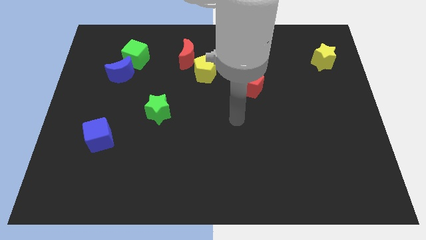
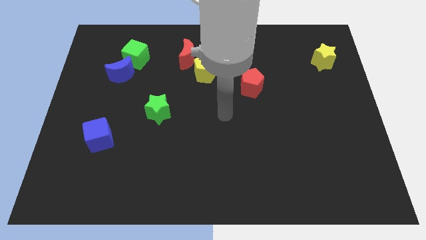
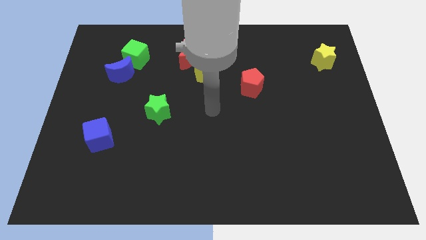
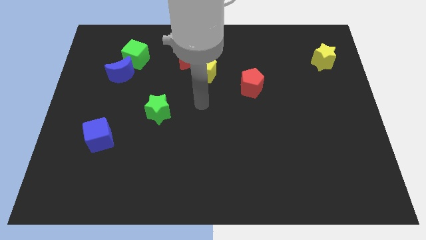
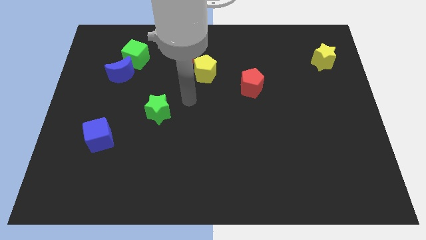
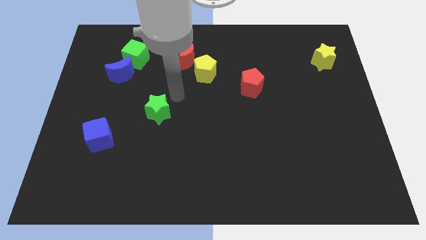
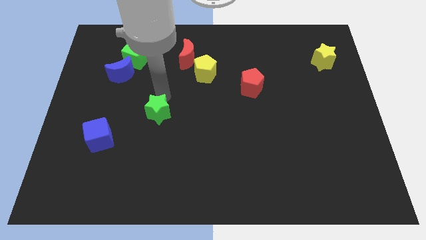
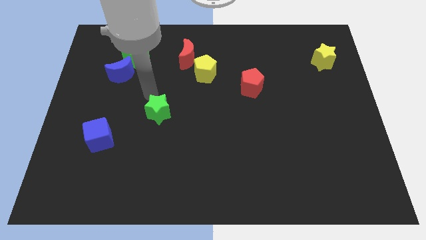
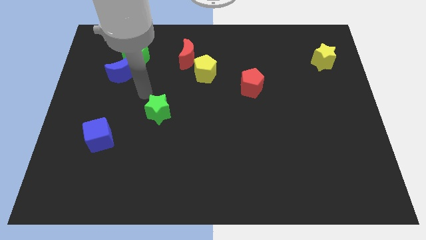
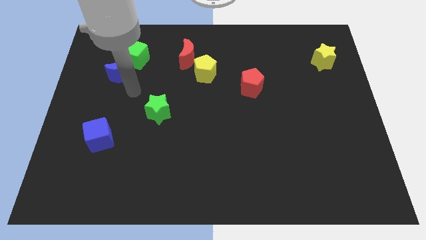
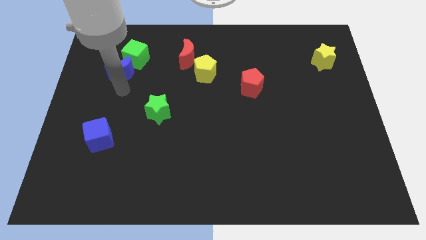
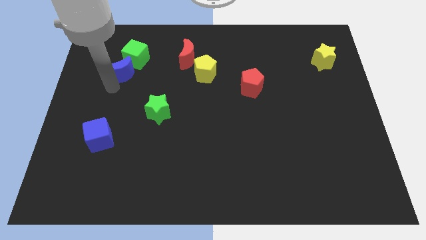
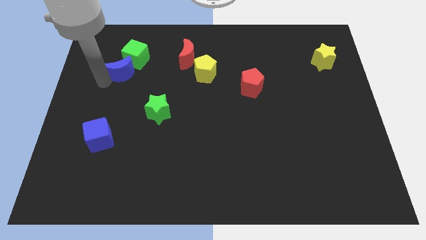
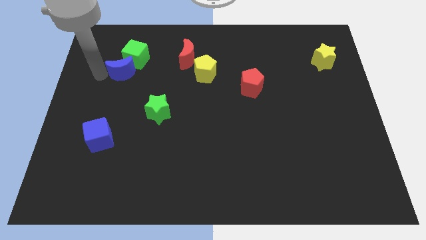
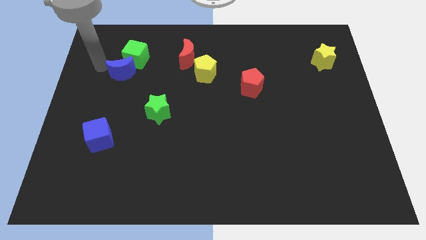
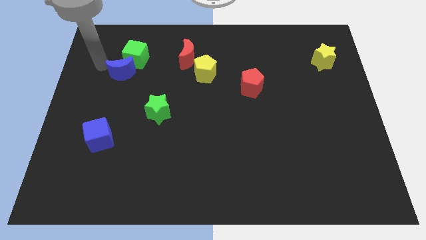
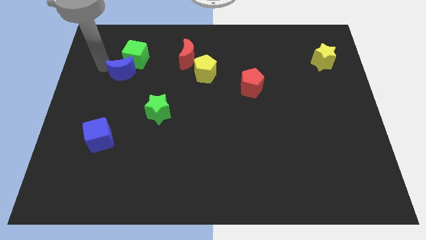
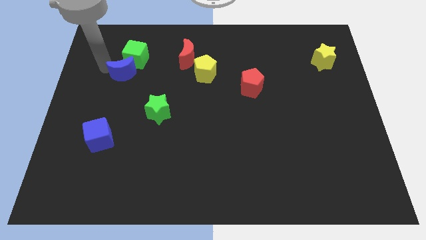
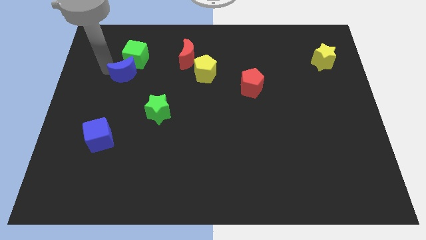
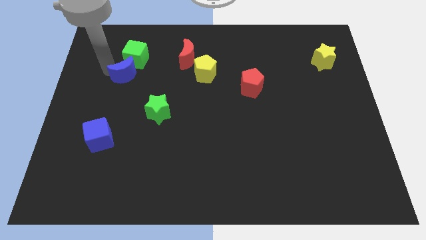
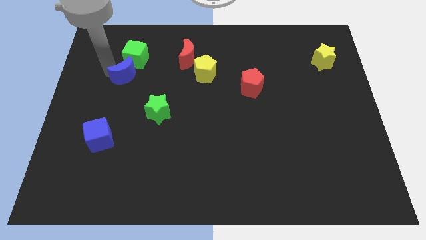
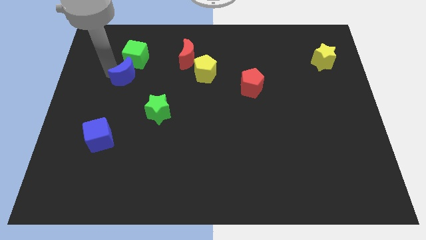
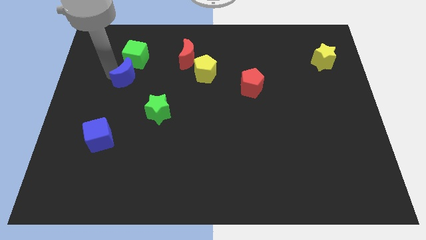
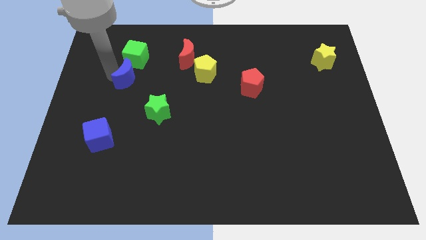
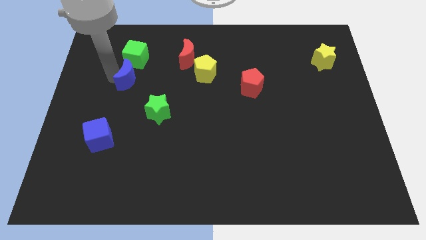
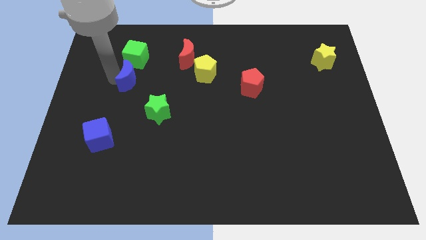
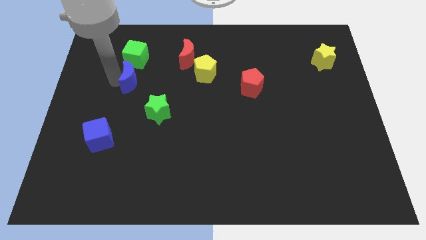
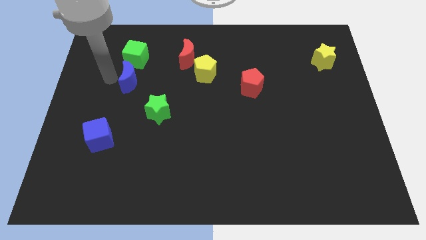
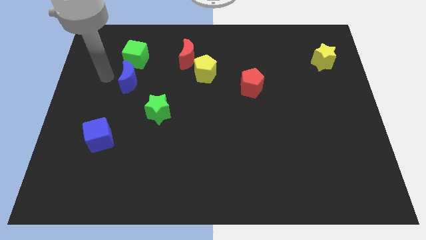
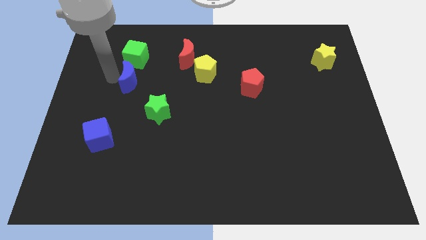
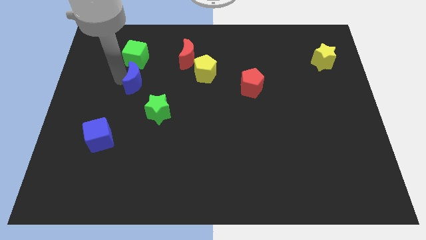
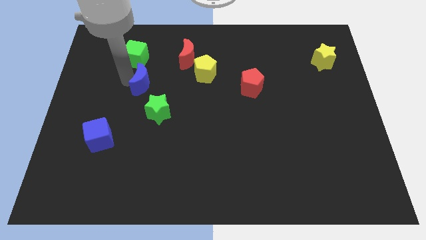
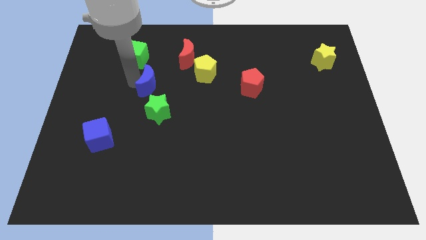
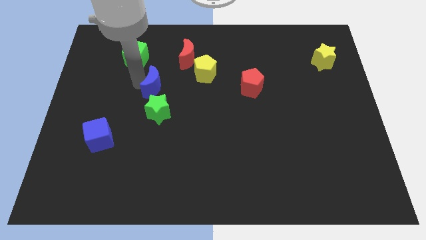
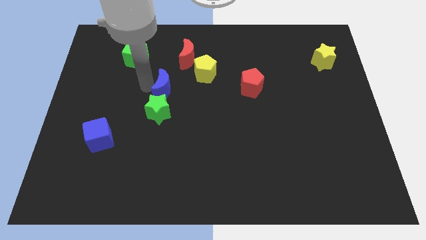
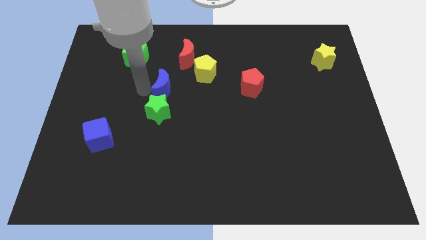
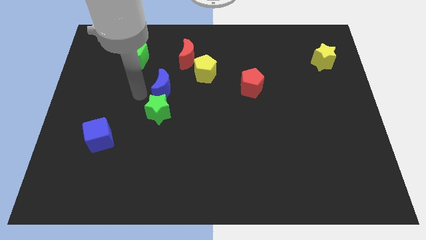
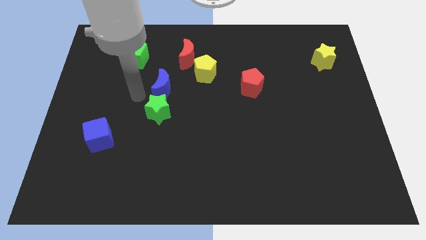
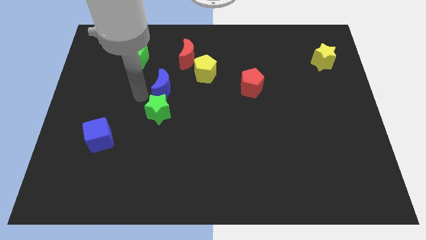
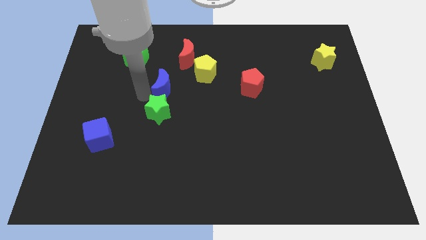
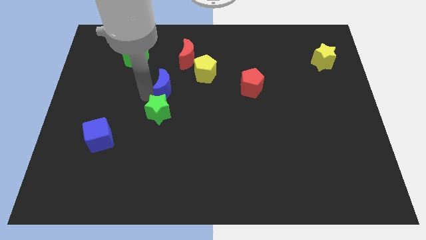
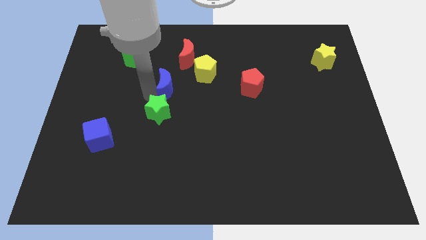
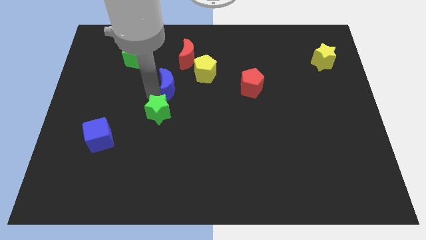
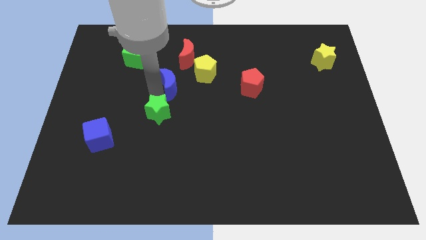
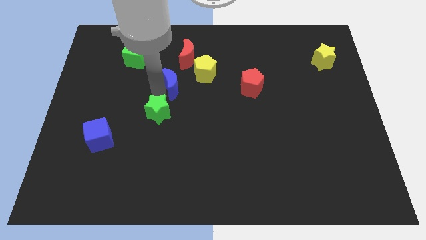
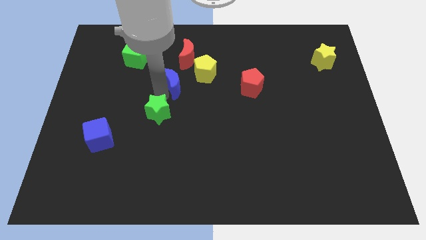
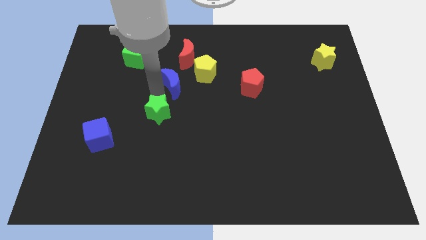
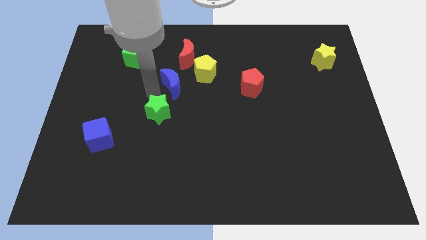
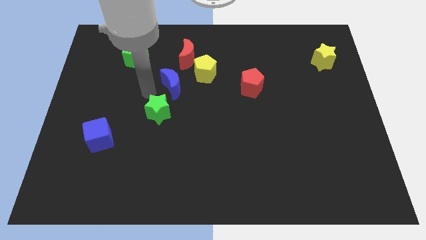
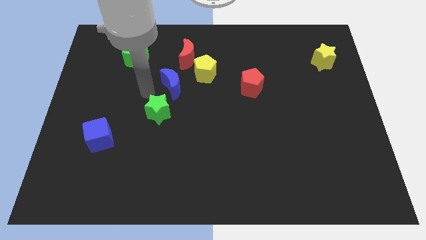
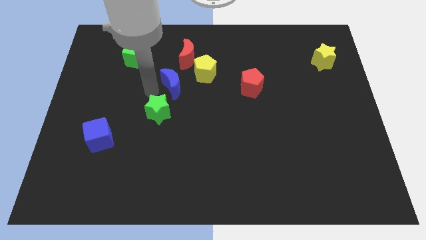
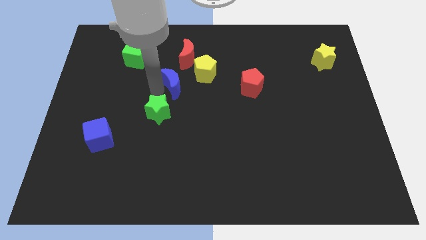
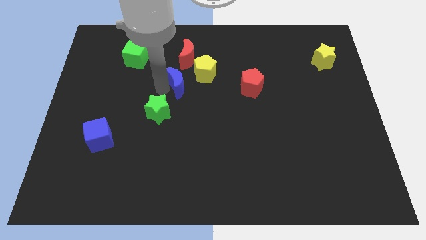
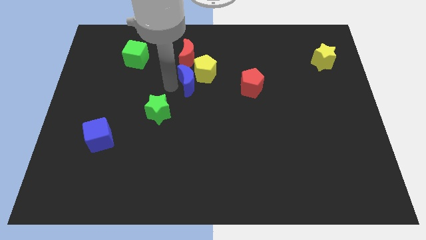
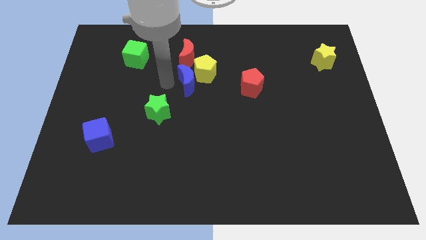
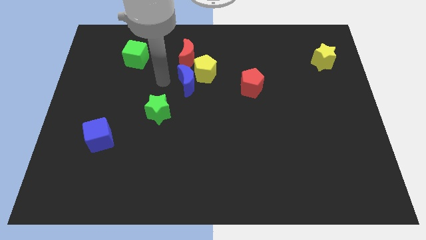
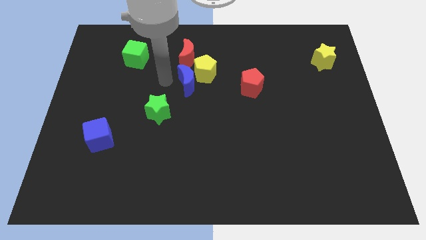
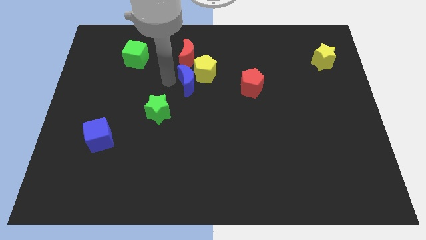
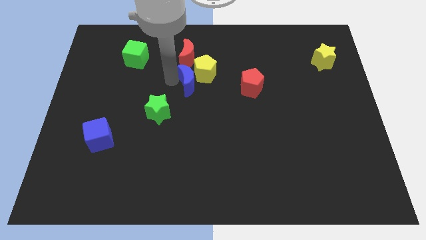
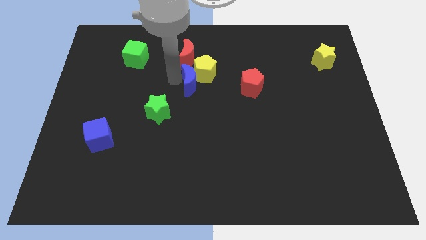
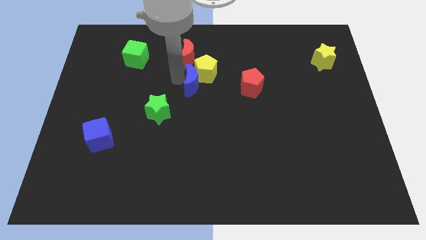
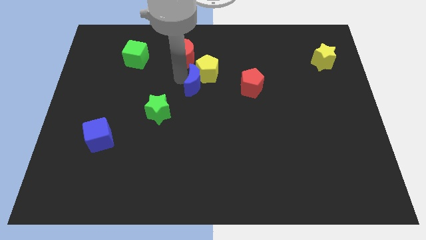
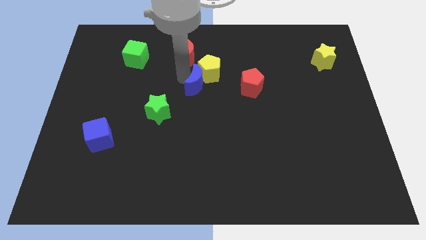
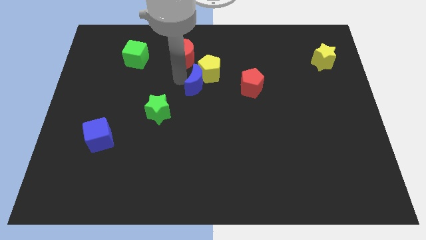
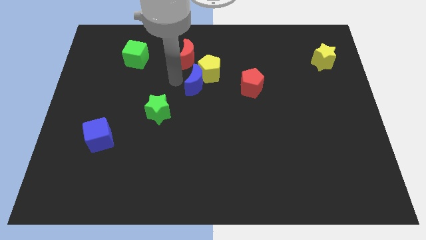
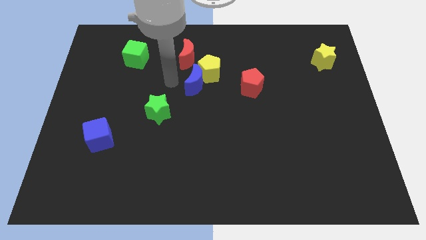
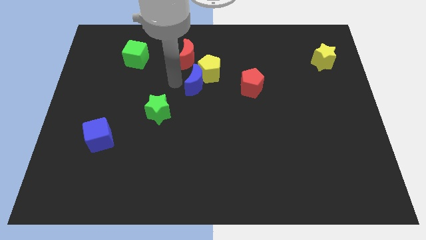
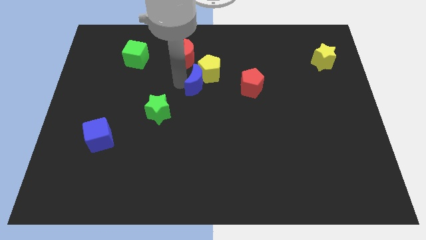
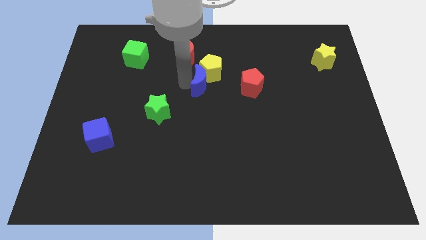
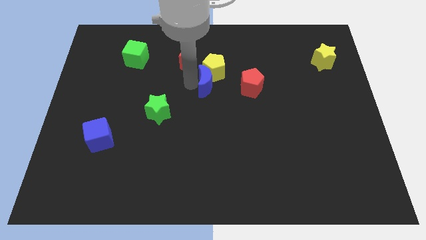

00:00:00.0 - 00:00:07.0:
push the blue moon to the right

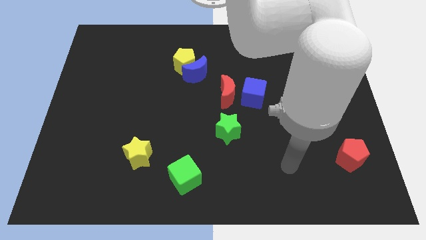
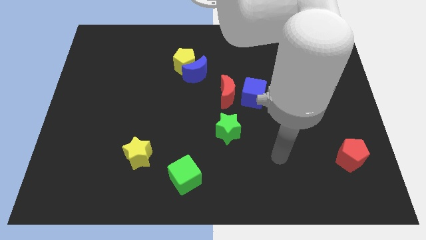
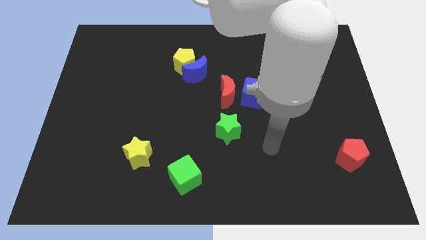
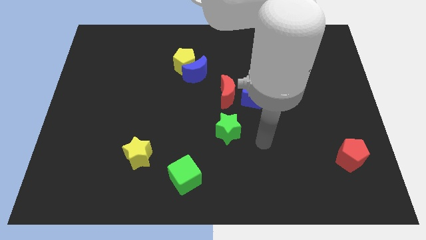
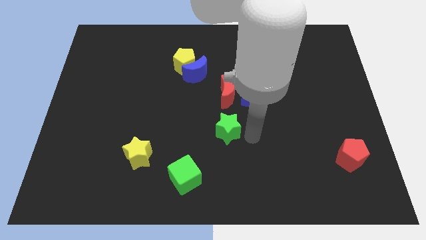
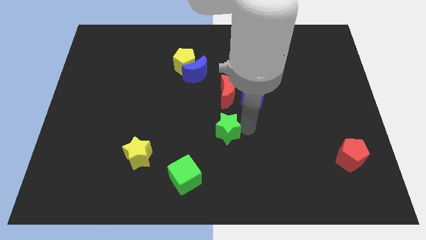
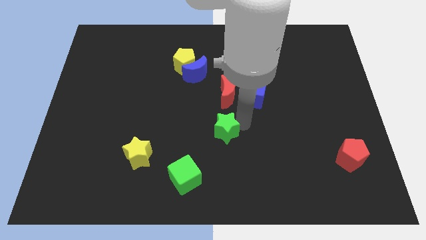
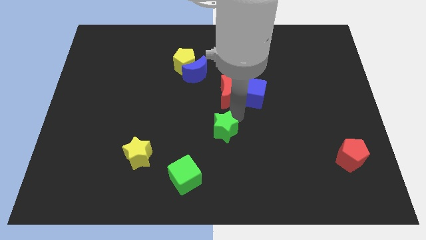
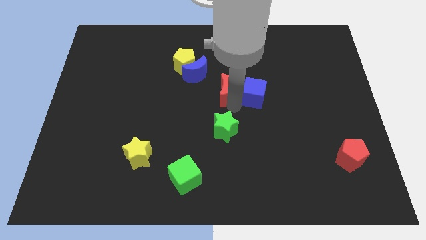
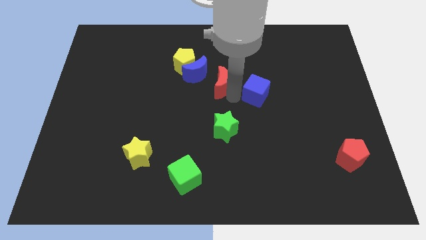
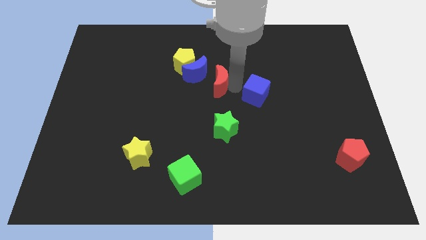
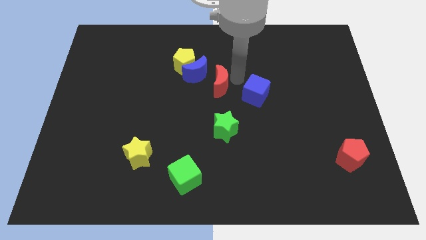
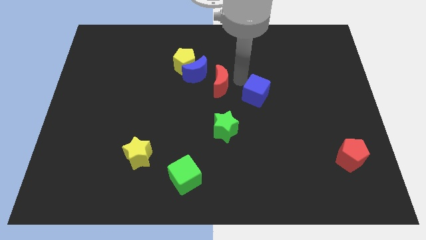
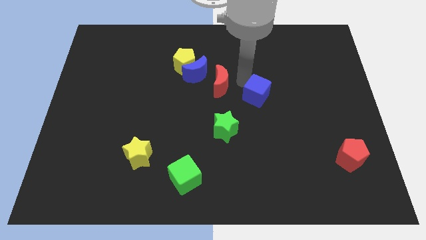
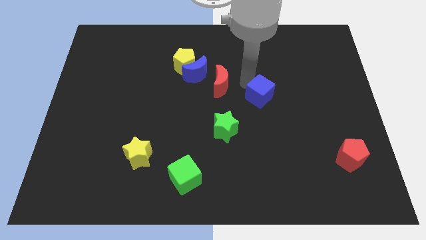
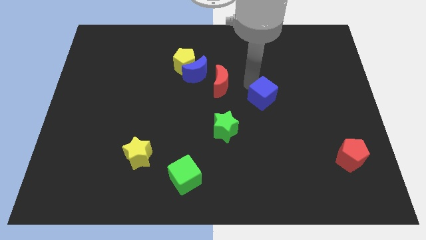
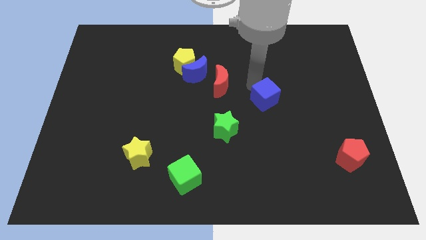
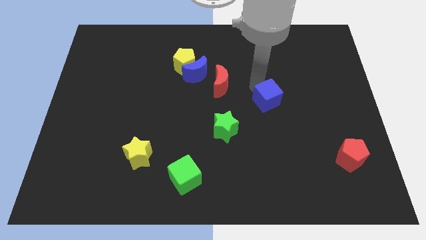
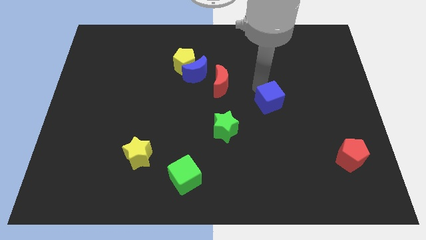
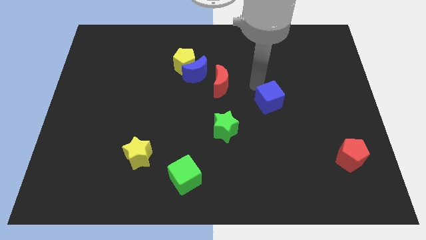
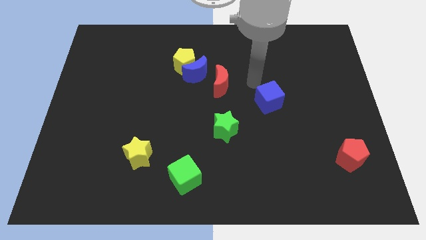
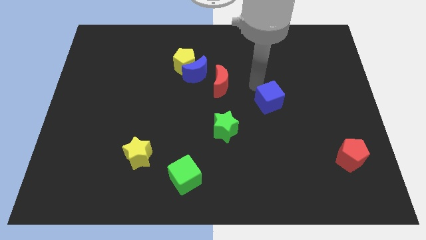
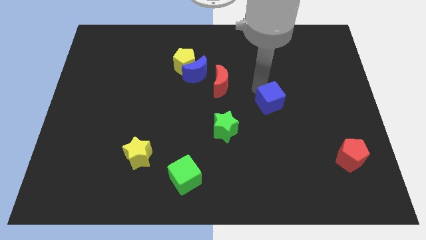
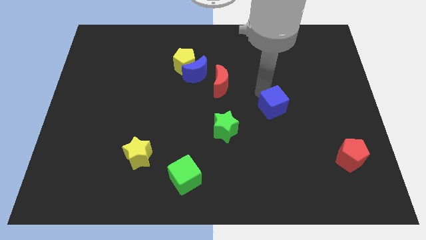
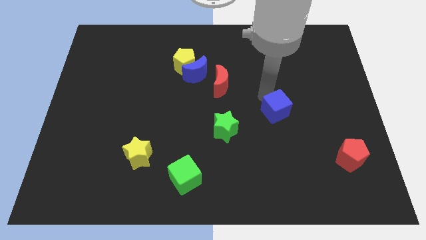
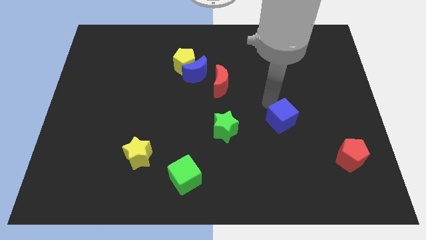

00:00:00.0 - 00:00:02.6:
slightly move the blue cube downwards and then to the right
